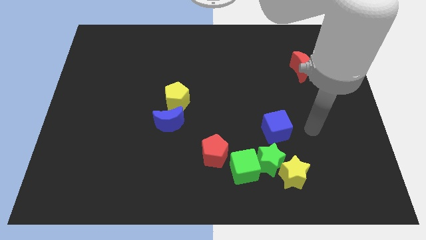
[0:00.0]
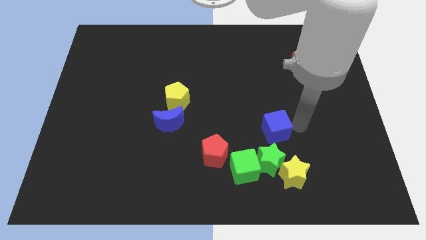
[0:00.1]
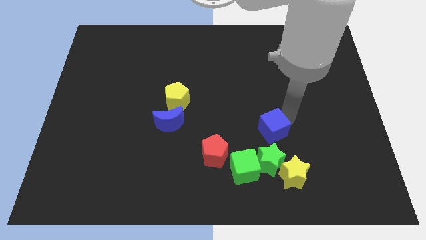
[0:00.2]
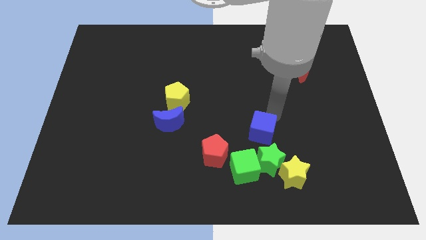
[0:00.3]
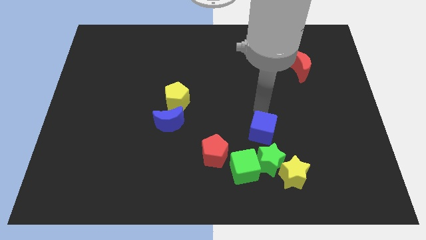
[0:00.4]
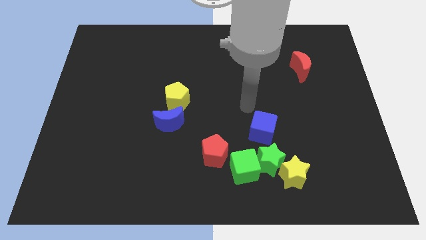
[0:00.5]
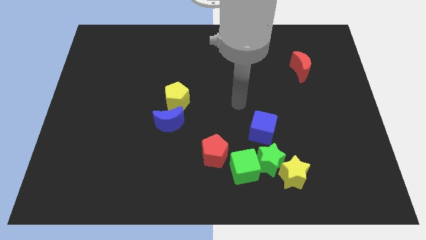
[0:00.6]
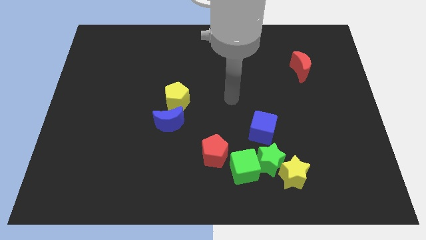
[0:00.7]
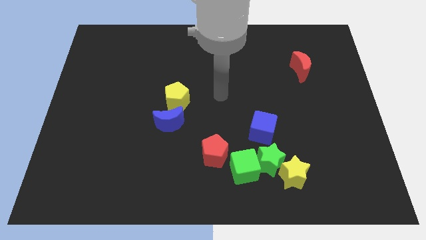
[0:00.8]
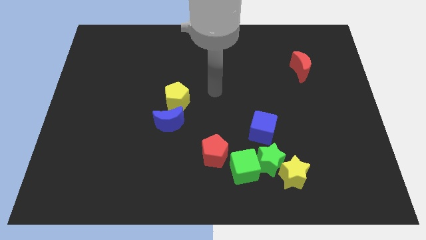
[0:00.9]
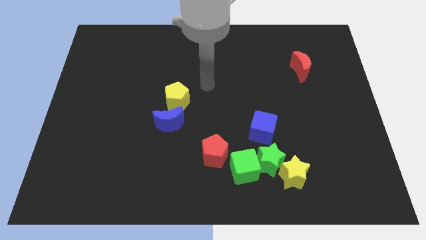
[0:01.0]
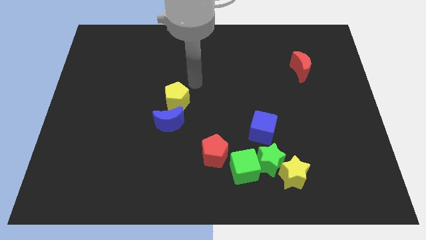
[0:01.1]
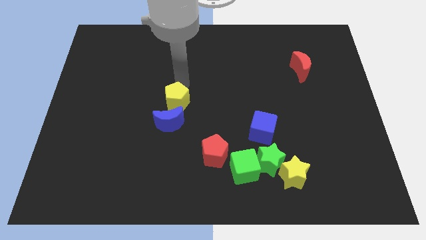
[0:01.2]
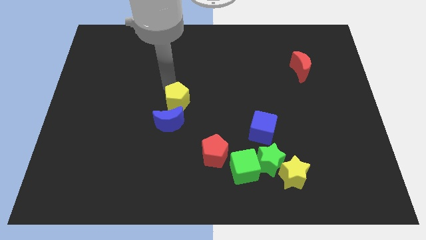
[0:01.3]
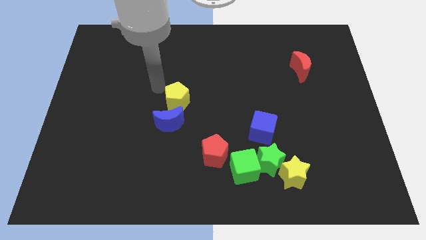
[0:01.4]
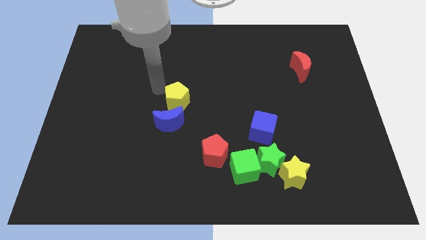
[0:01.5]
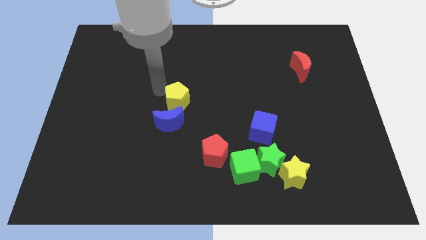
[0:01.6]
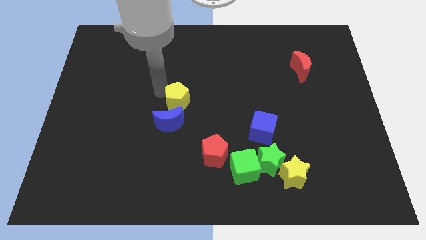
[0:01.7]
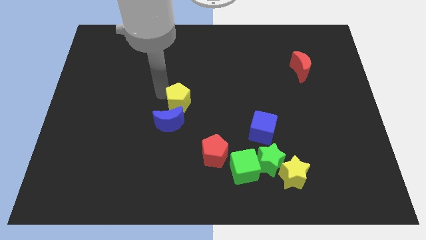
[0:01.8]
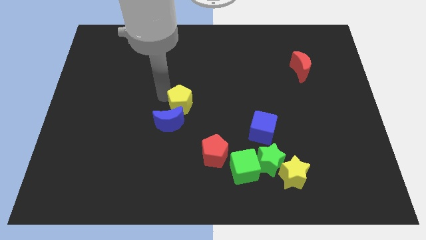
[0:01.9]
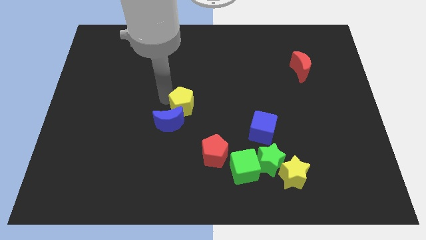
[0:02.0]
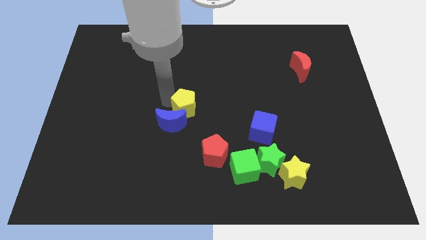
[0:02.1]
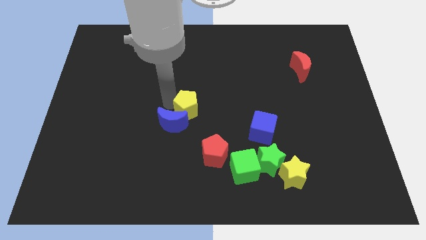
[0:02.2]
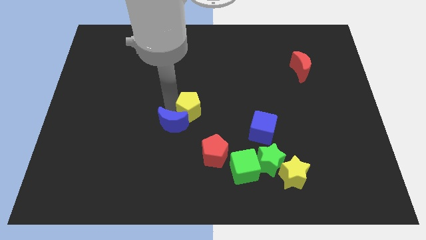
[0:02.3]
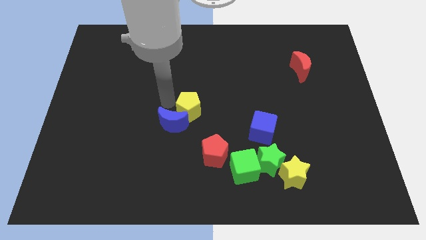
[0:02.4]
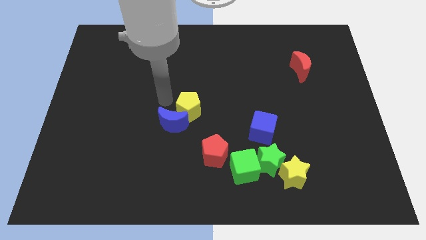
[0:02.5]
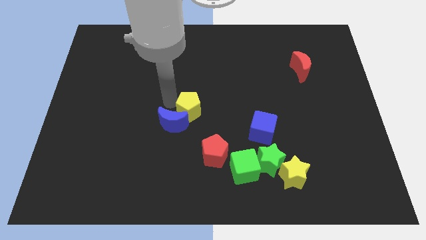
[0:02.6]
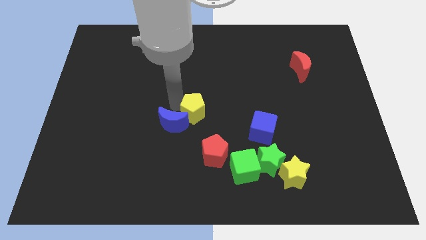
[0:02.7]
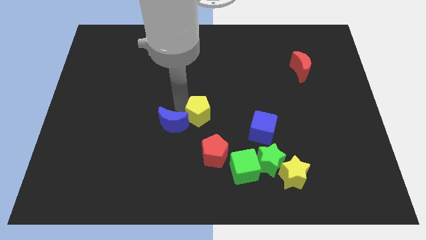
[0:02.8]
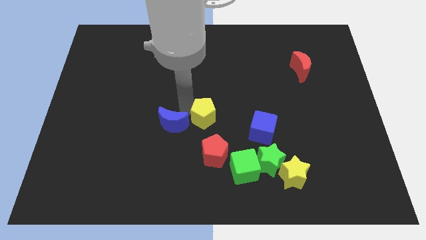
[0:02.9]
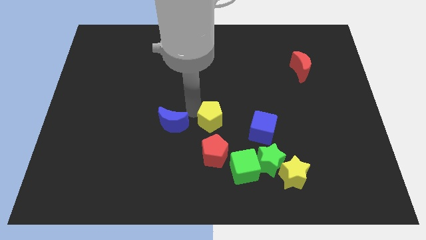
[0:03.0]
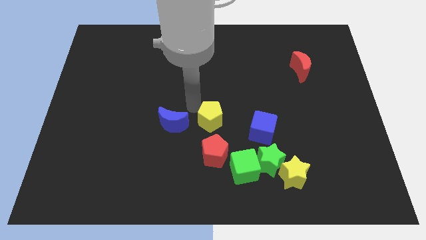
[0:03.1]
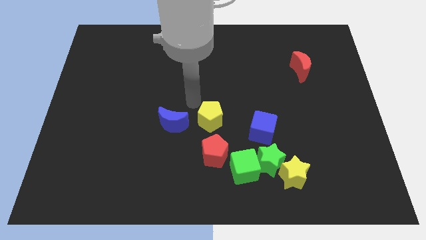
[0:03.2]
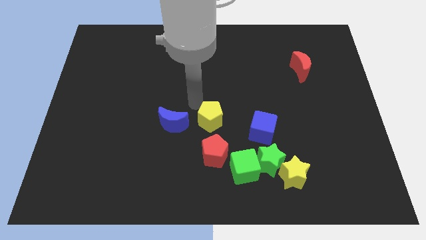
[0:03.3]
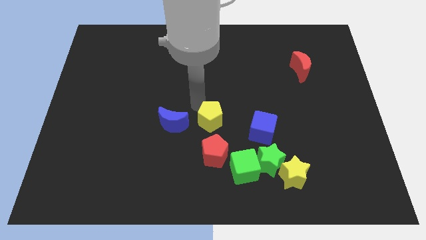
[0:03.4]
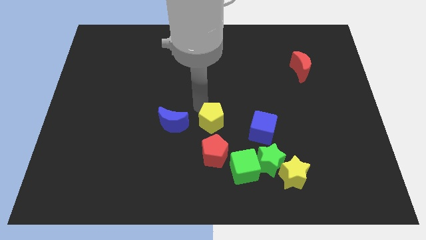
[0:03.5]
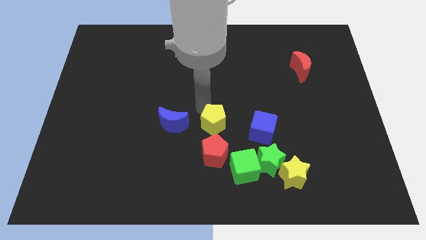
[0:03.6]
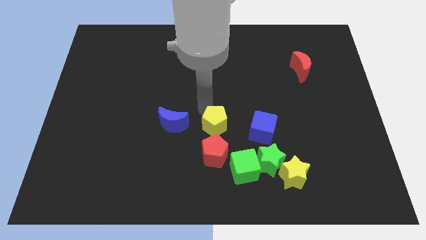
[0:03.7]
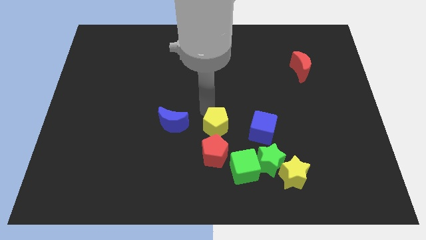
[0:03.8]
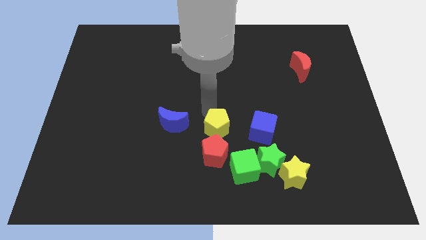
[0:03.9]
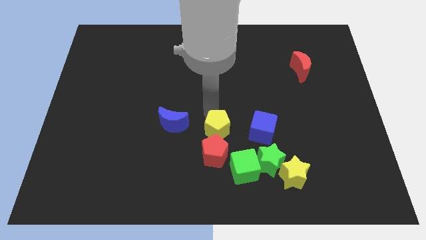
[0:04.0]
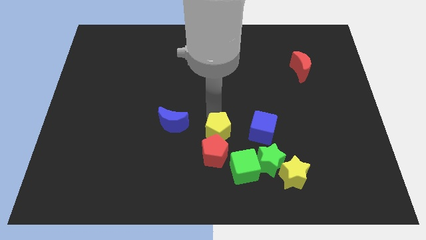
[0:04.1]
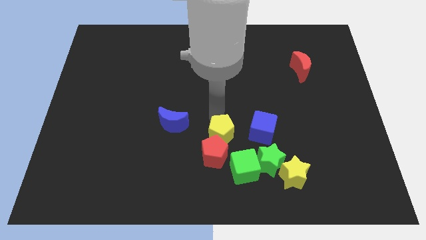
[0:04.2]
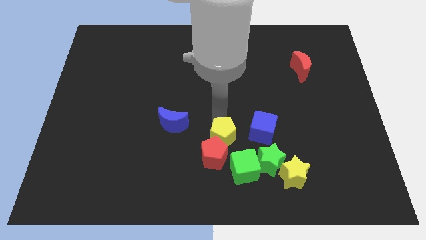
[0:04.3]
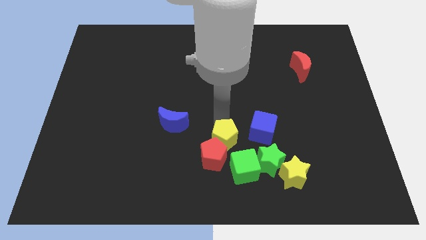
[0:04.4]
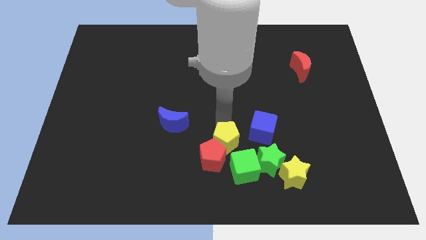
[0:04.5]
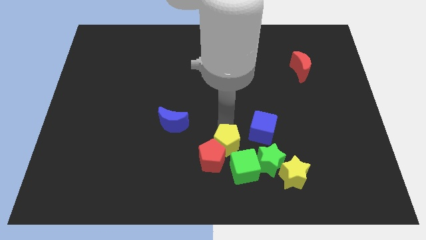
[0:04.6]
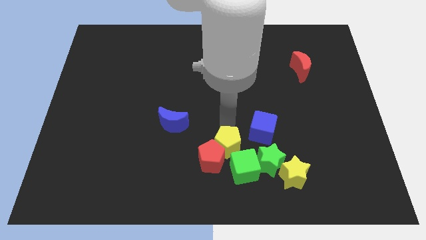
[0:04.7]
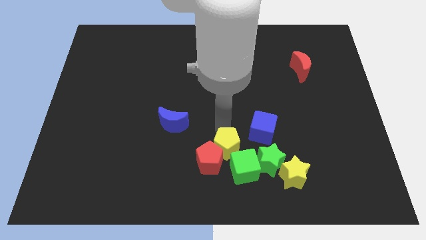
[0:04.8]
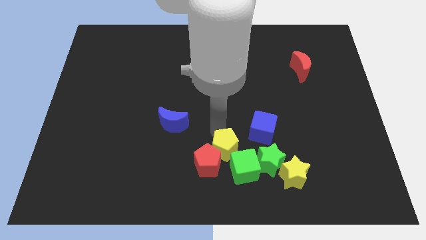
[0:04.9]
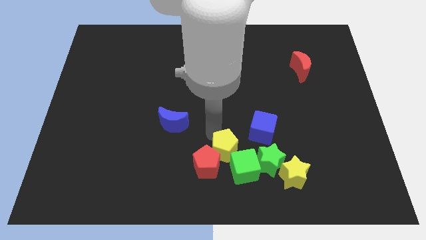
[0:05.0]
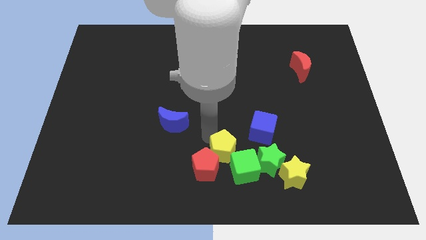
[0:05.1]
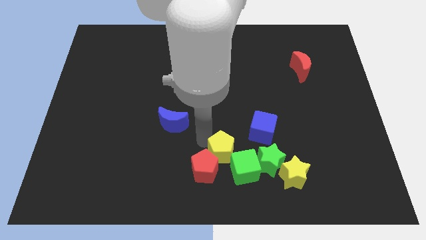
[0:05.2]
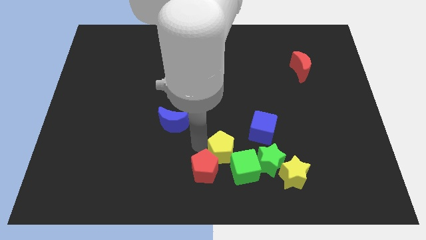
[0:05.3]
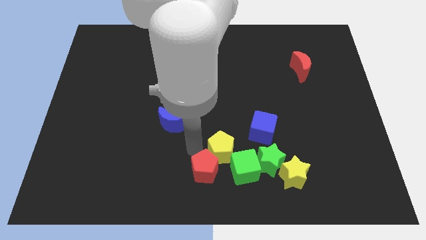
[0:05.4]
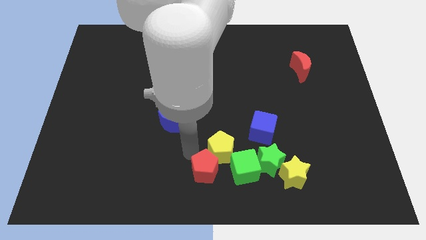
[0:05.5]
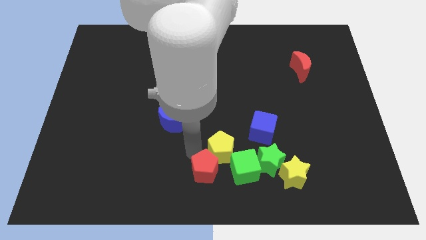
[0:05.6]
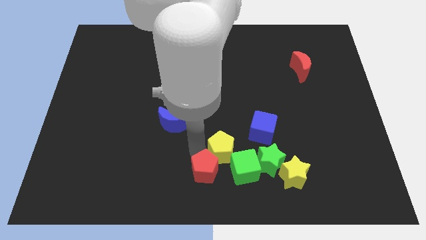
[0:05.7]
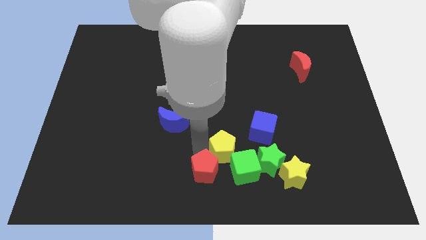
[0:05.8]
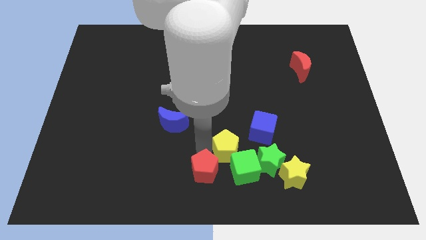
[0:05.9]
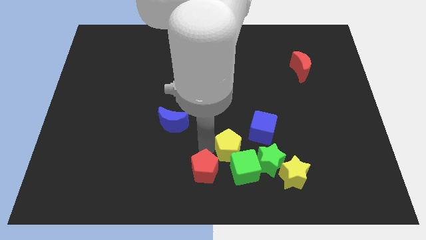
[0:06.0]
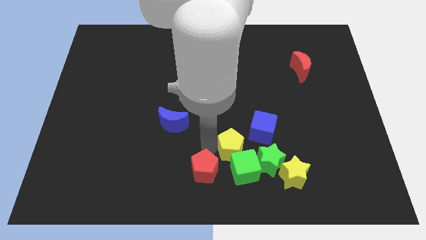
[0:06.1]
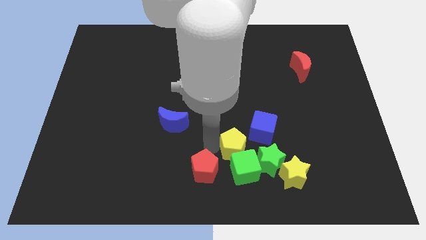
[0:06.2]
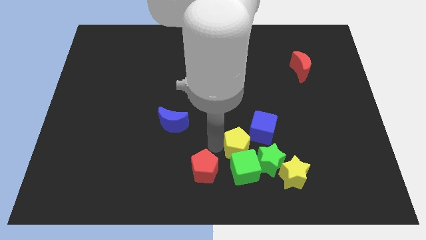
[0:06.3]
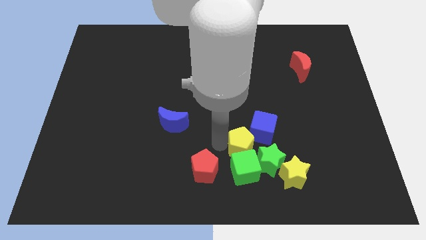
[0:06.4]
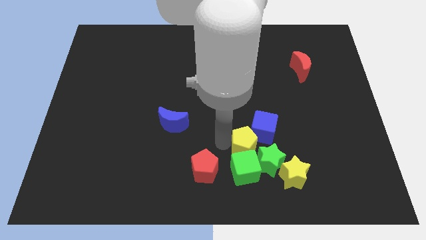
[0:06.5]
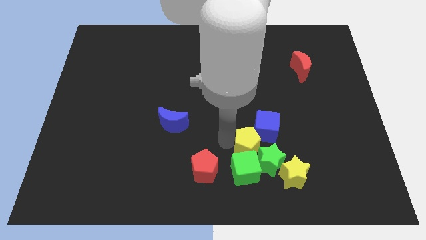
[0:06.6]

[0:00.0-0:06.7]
move the yellow pentagon to the green star

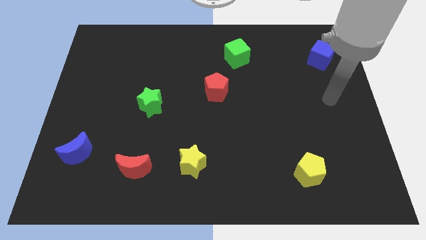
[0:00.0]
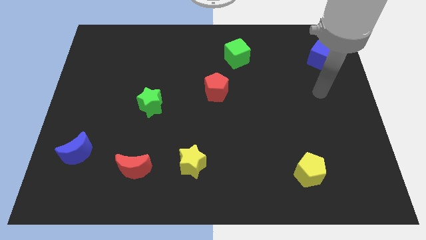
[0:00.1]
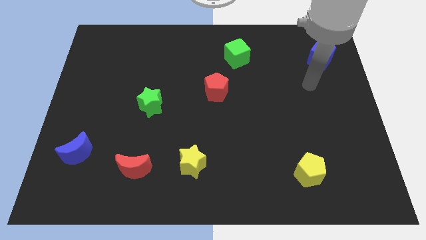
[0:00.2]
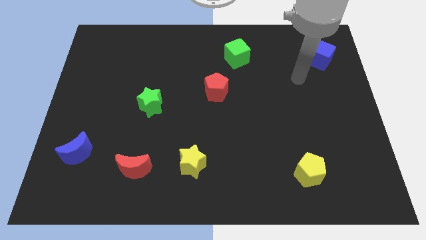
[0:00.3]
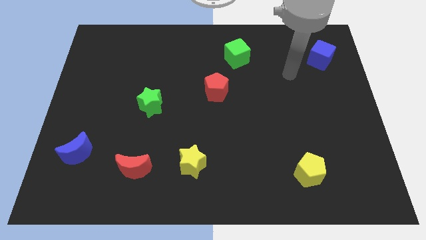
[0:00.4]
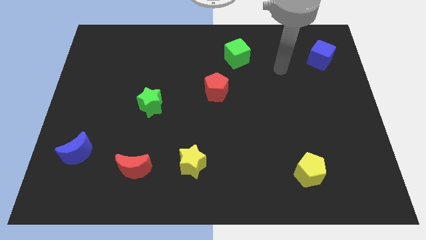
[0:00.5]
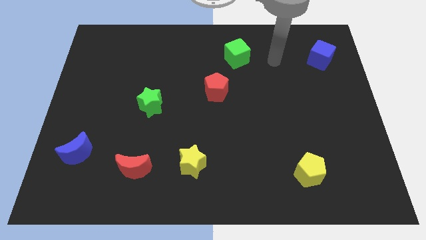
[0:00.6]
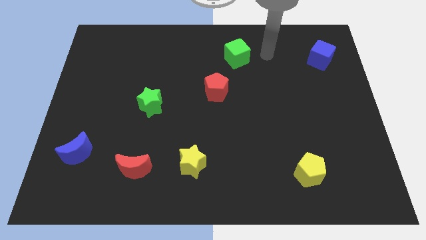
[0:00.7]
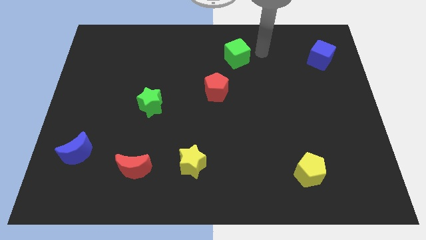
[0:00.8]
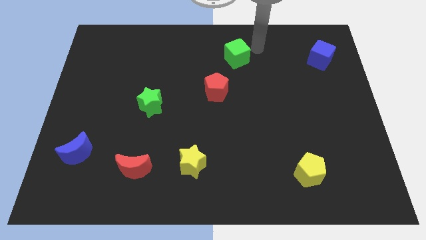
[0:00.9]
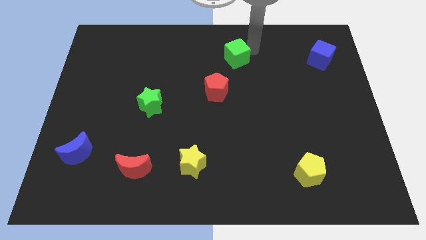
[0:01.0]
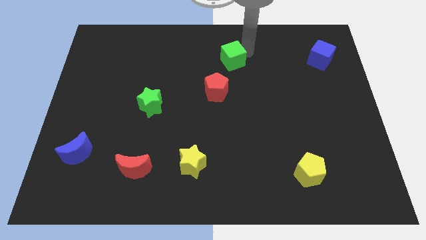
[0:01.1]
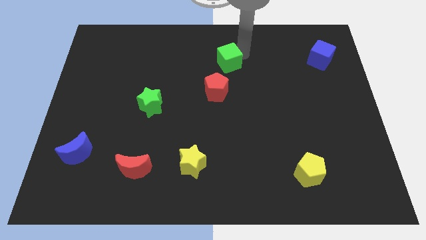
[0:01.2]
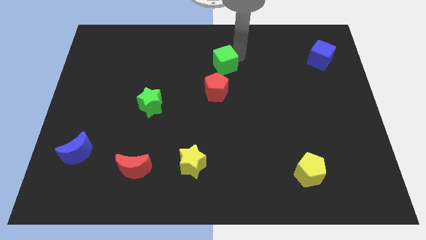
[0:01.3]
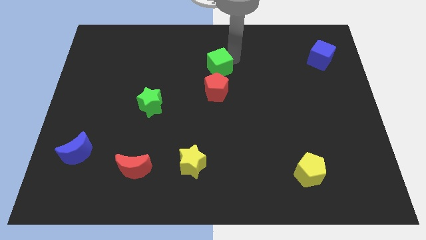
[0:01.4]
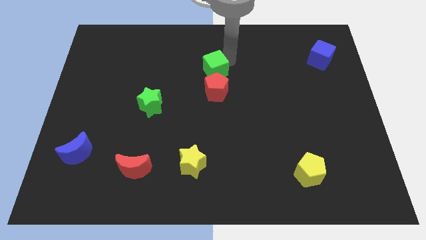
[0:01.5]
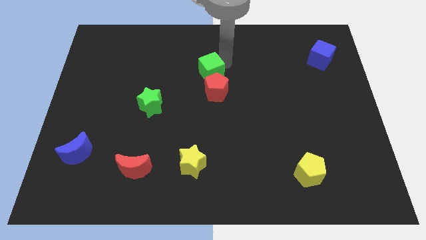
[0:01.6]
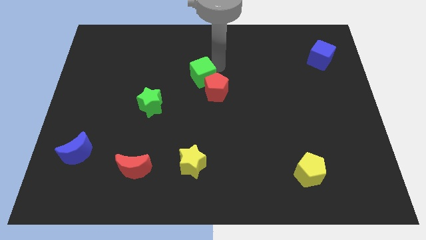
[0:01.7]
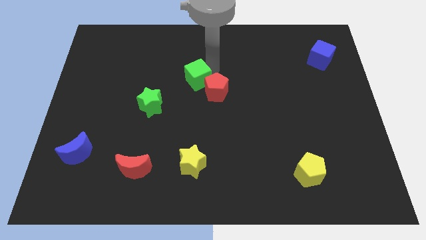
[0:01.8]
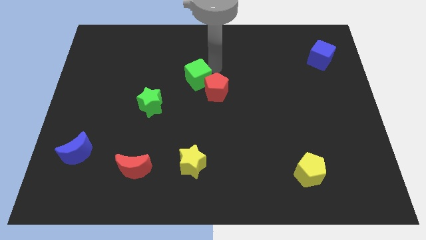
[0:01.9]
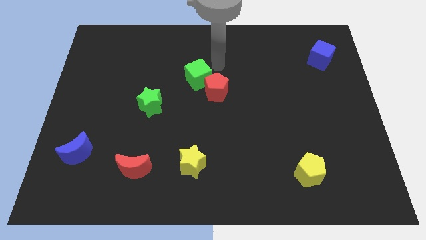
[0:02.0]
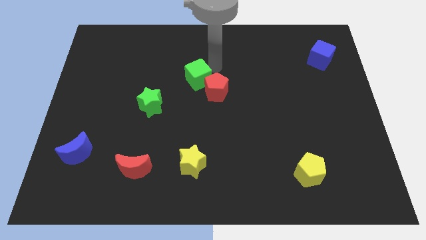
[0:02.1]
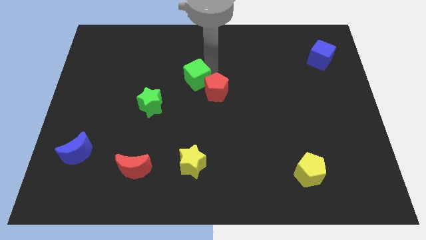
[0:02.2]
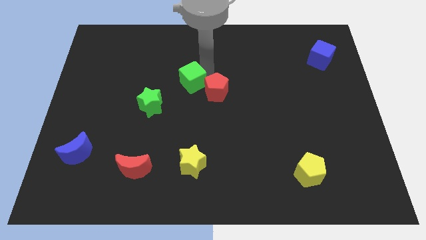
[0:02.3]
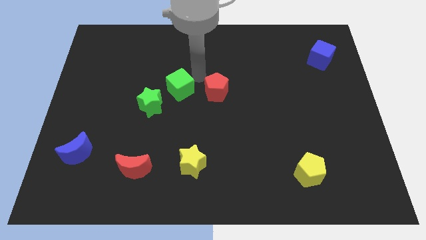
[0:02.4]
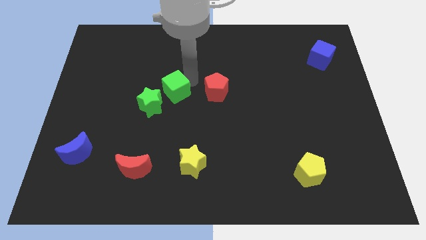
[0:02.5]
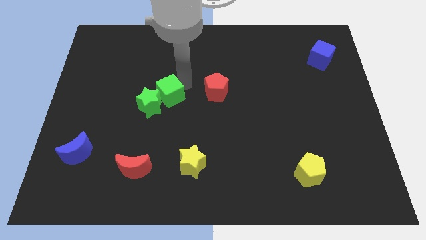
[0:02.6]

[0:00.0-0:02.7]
put the green cube towards the green star
